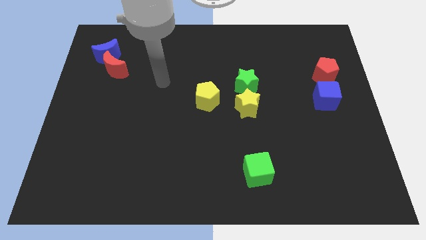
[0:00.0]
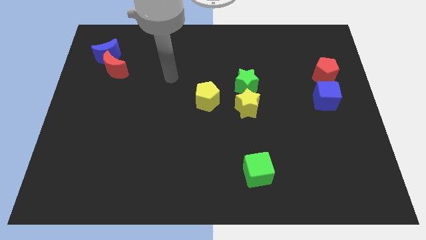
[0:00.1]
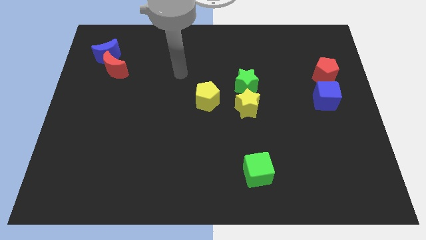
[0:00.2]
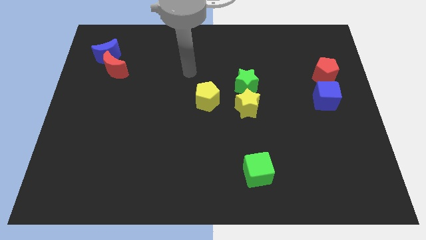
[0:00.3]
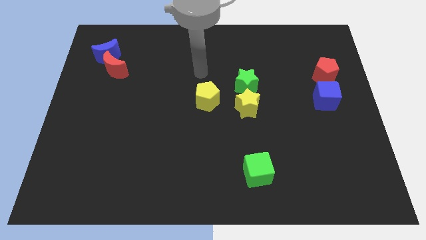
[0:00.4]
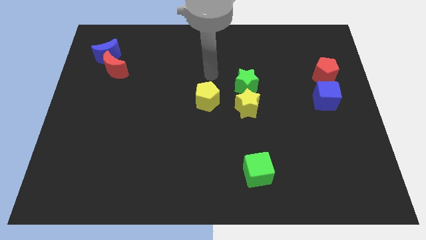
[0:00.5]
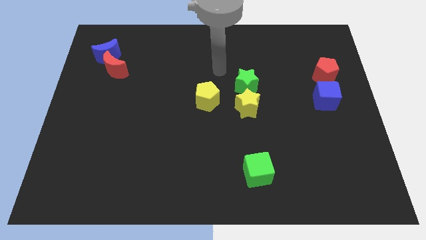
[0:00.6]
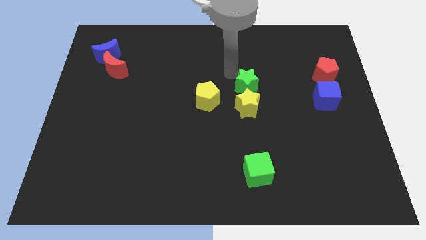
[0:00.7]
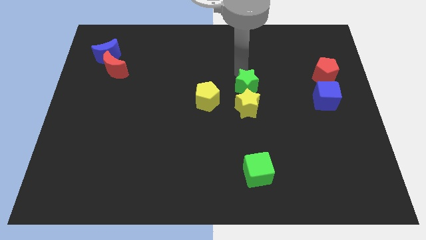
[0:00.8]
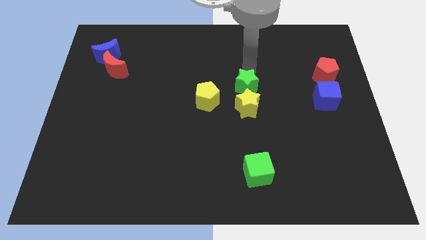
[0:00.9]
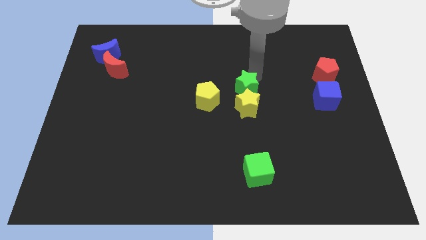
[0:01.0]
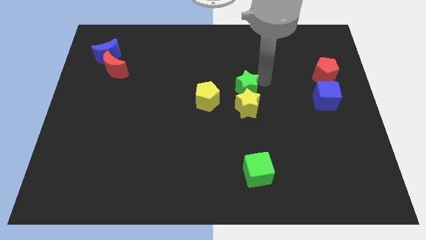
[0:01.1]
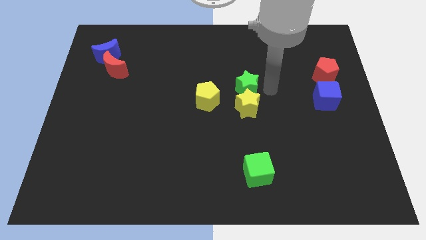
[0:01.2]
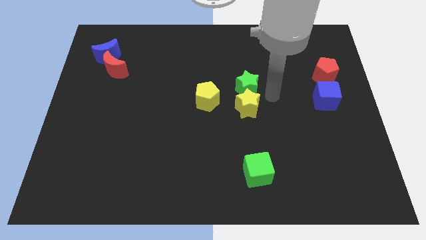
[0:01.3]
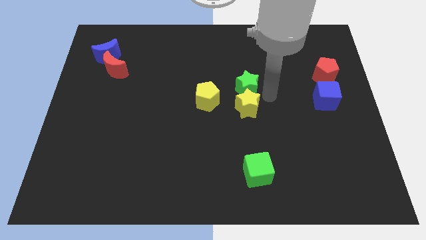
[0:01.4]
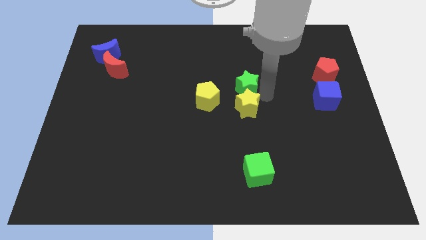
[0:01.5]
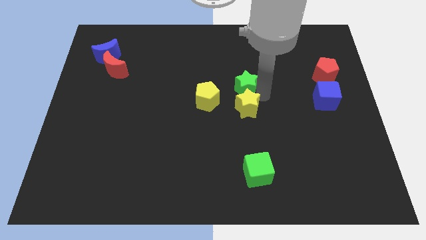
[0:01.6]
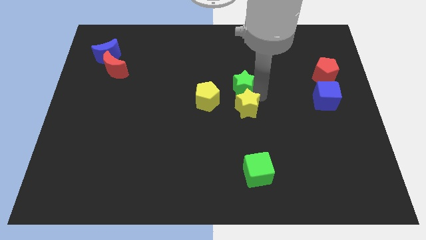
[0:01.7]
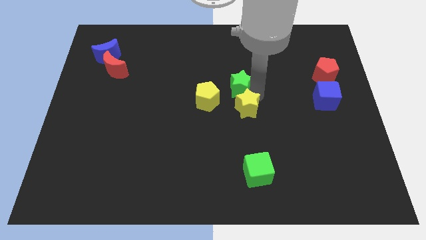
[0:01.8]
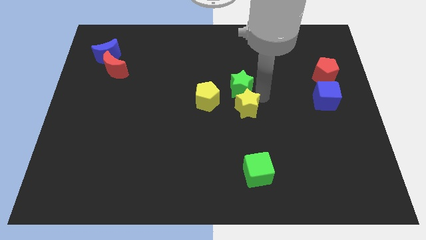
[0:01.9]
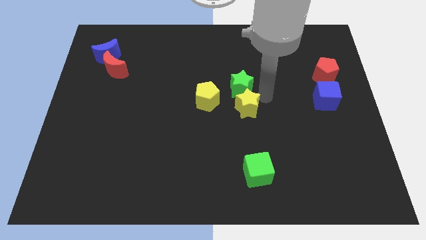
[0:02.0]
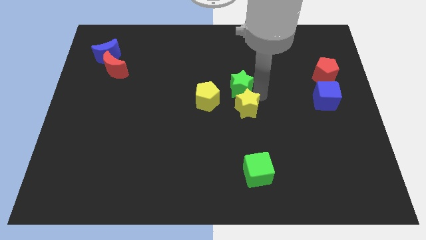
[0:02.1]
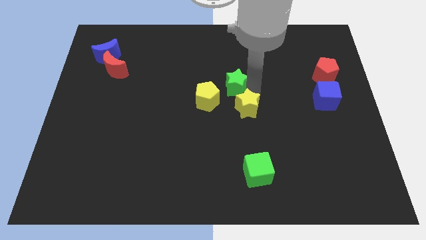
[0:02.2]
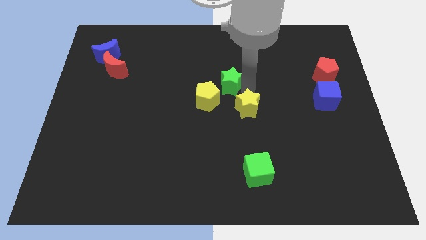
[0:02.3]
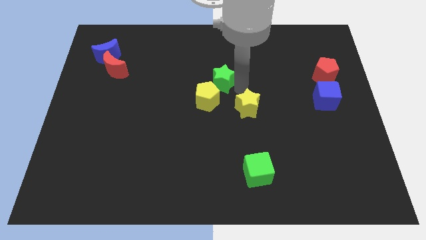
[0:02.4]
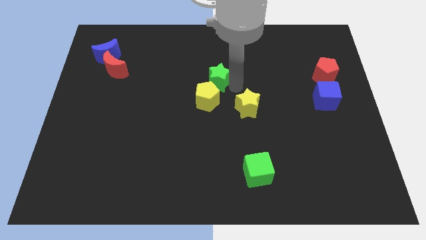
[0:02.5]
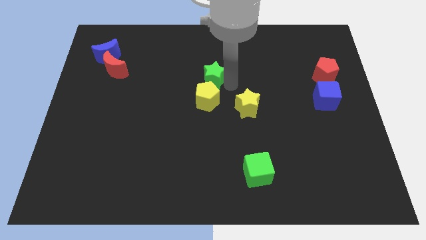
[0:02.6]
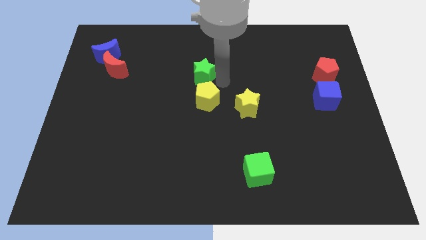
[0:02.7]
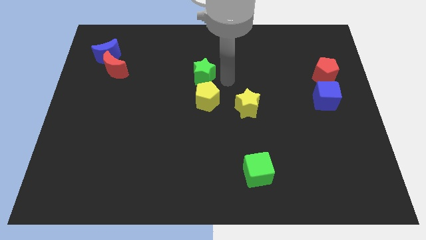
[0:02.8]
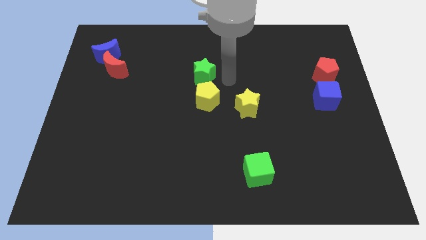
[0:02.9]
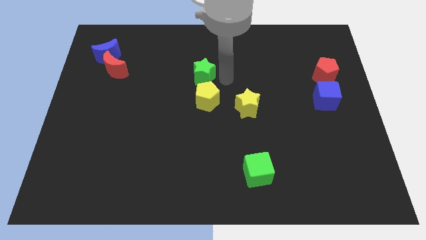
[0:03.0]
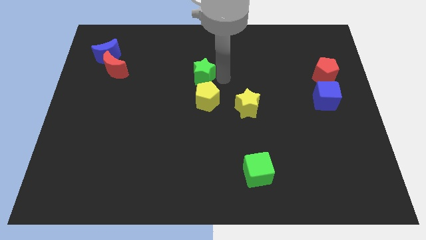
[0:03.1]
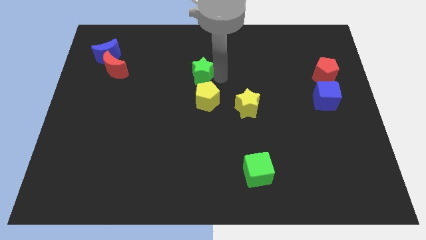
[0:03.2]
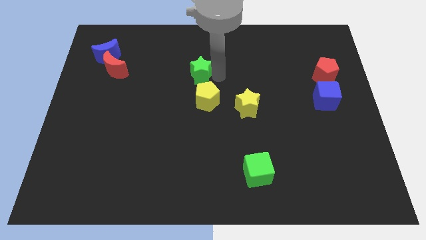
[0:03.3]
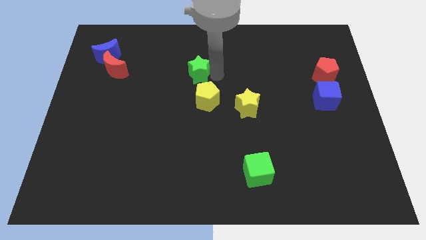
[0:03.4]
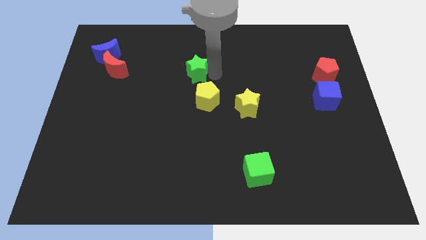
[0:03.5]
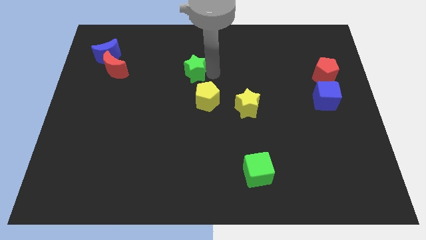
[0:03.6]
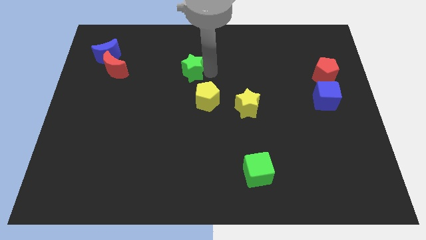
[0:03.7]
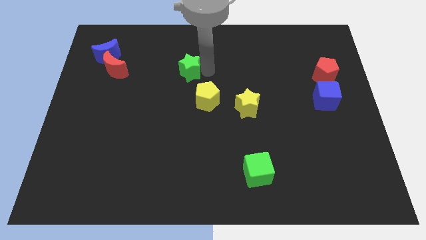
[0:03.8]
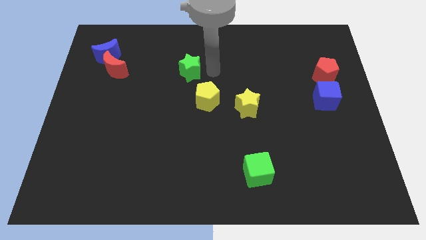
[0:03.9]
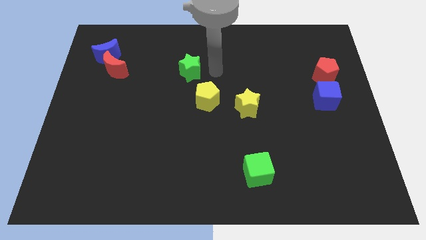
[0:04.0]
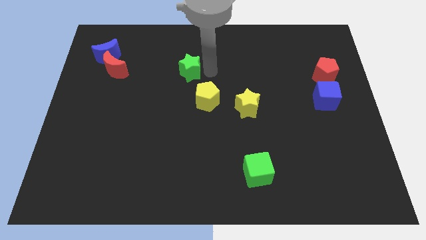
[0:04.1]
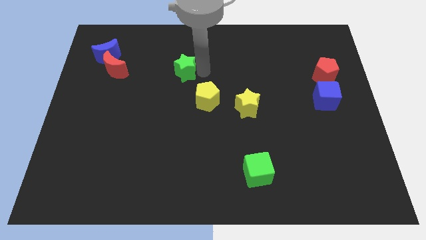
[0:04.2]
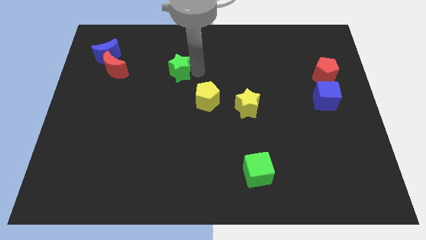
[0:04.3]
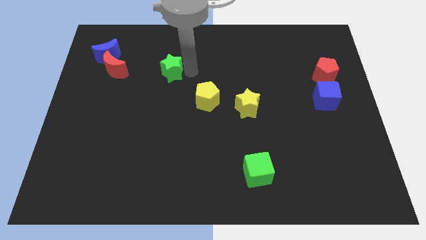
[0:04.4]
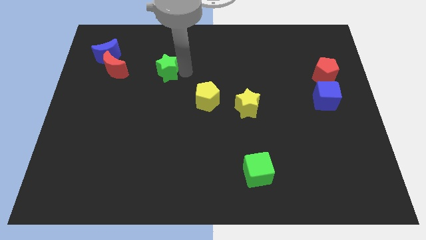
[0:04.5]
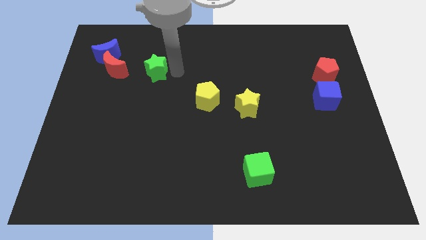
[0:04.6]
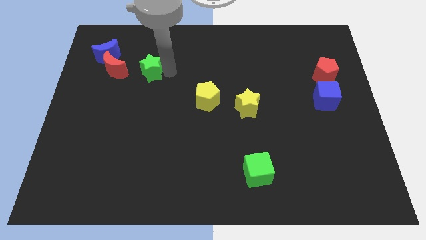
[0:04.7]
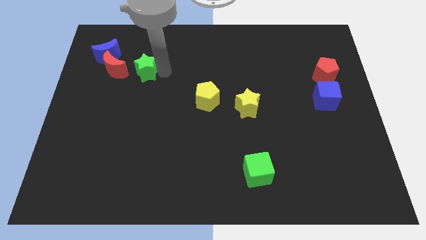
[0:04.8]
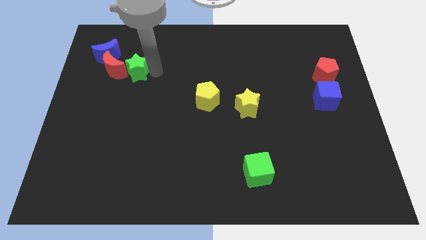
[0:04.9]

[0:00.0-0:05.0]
move the green star to the red moon

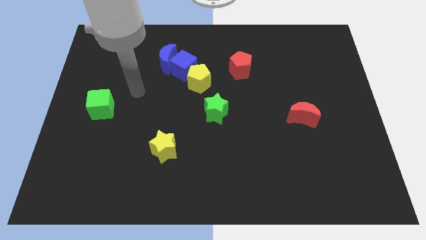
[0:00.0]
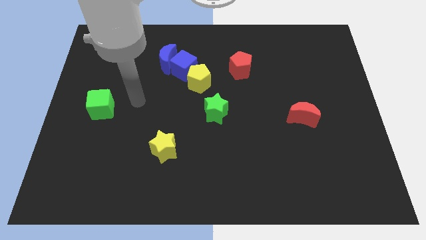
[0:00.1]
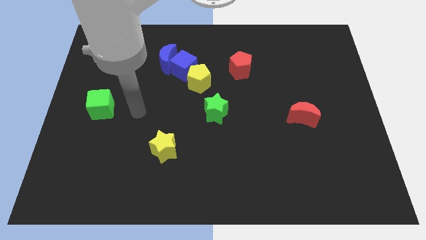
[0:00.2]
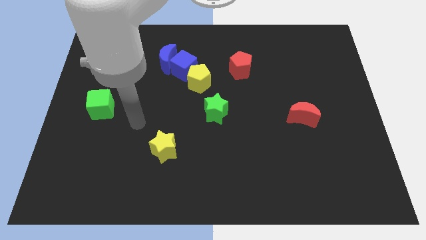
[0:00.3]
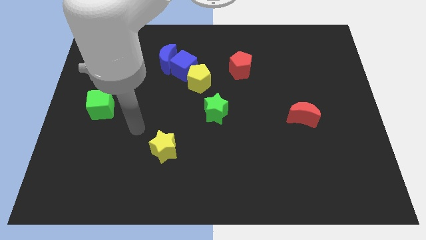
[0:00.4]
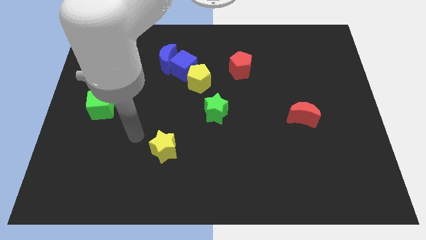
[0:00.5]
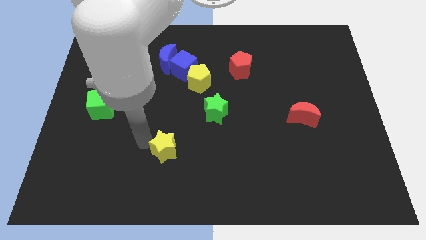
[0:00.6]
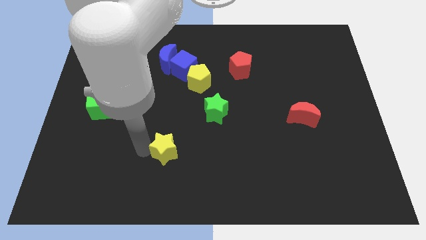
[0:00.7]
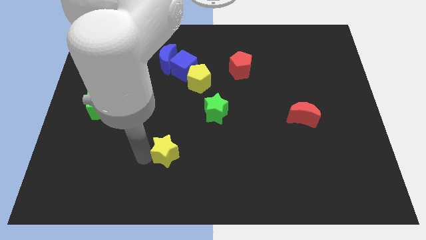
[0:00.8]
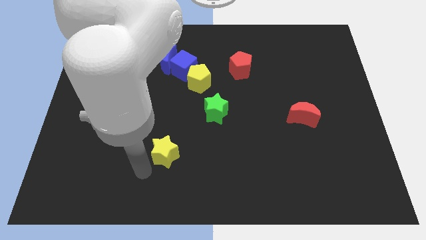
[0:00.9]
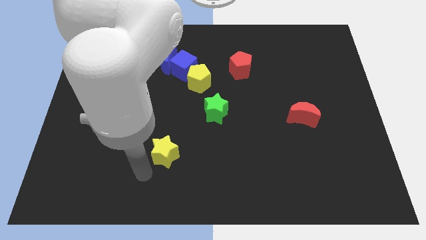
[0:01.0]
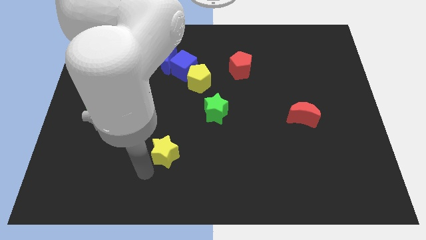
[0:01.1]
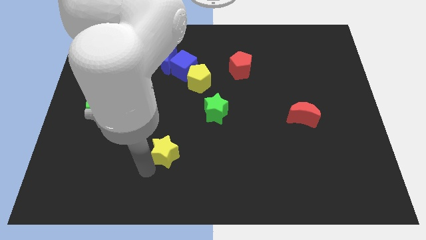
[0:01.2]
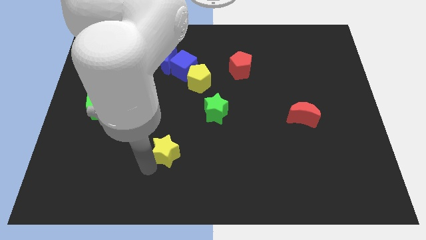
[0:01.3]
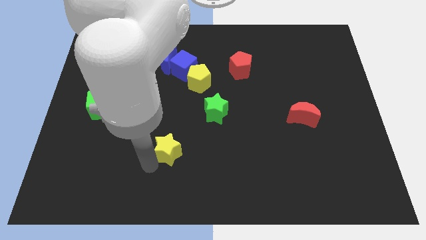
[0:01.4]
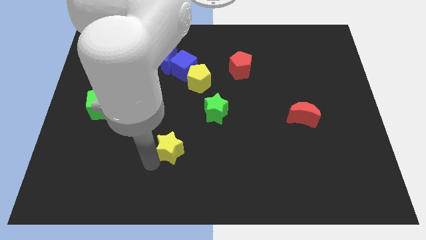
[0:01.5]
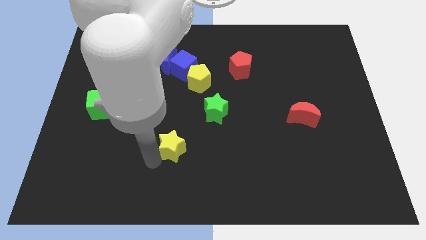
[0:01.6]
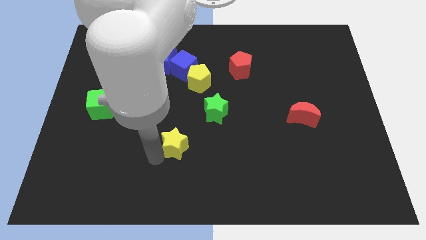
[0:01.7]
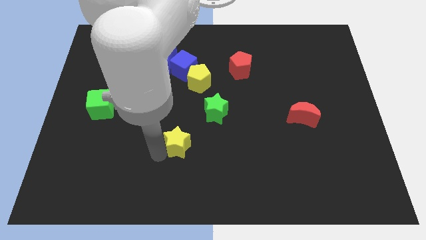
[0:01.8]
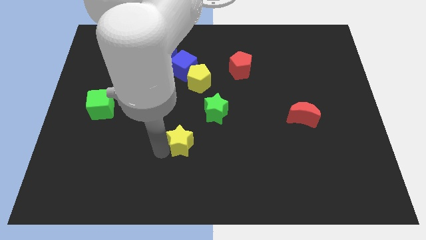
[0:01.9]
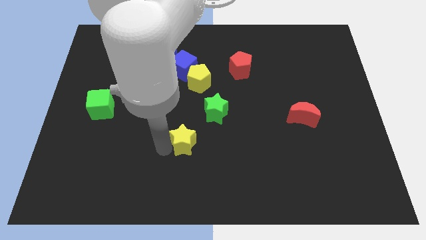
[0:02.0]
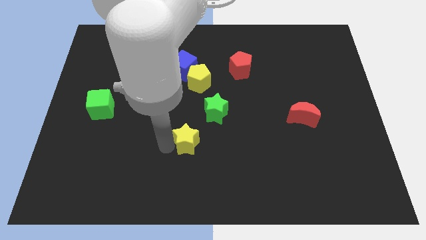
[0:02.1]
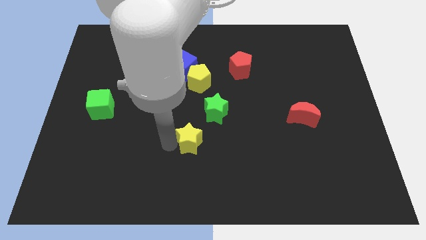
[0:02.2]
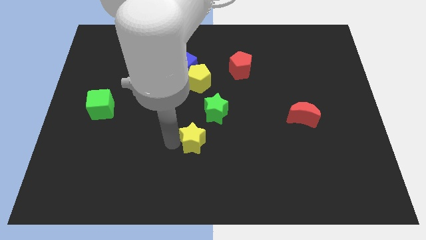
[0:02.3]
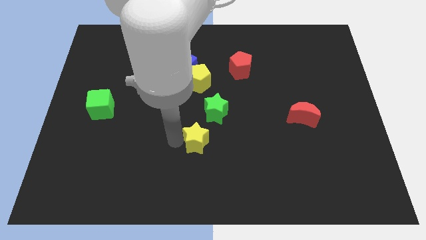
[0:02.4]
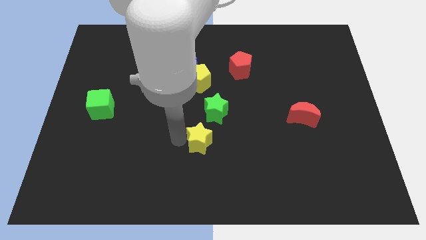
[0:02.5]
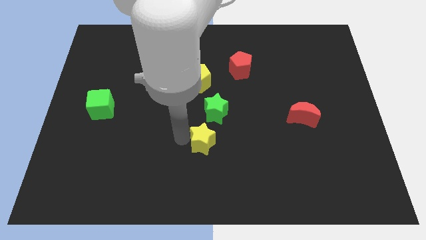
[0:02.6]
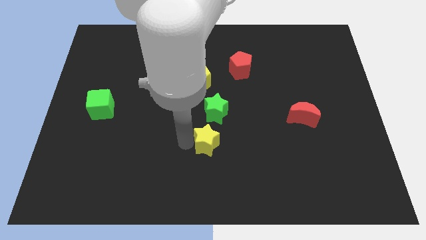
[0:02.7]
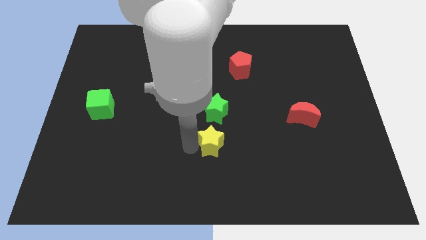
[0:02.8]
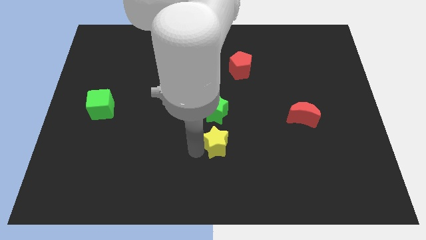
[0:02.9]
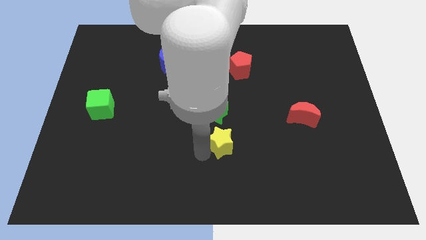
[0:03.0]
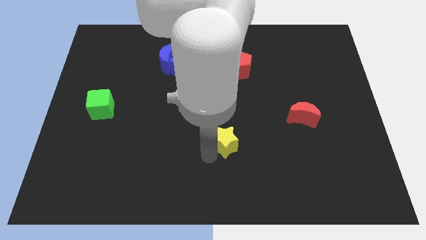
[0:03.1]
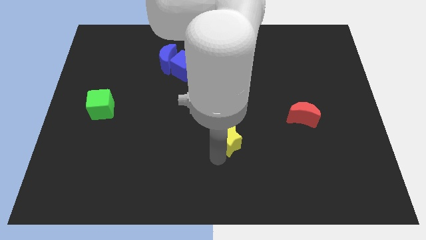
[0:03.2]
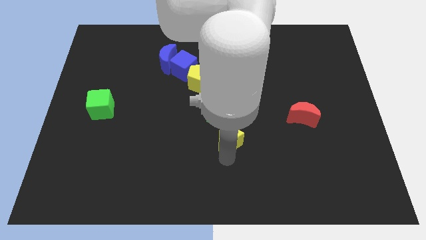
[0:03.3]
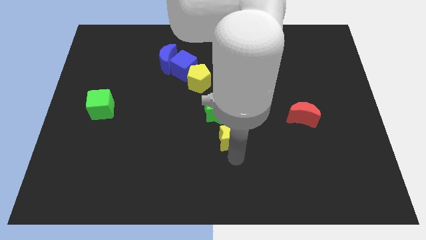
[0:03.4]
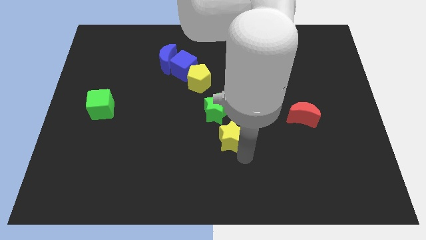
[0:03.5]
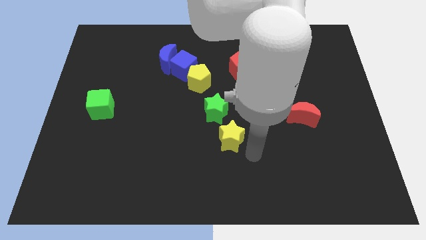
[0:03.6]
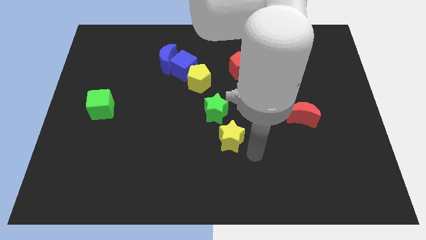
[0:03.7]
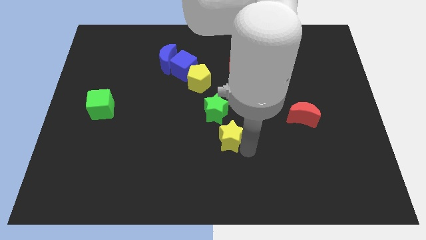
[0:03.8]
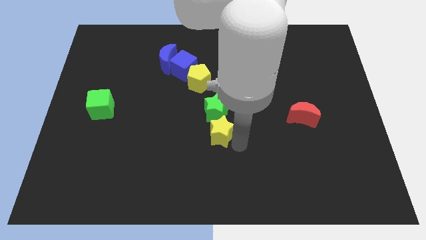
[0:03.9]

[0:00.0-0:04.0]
slide the yellow star next to the green star
